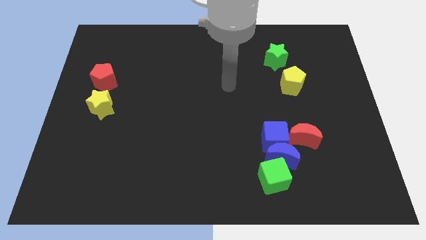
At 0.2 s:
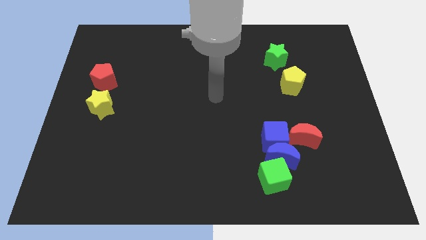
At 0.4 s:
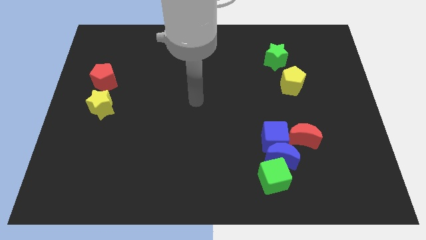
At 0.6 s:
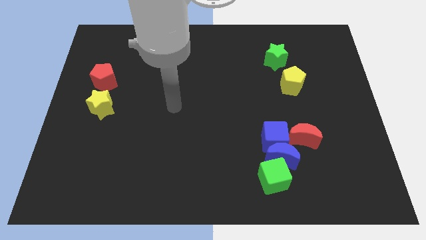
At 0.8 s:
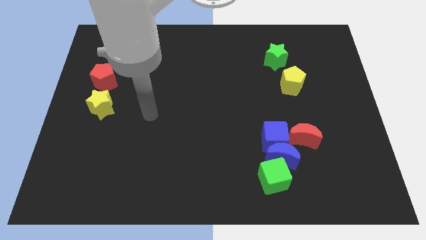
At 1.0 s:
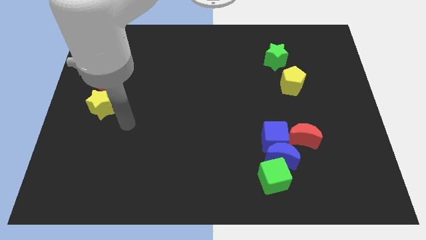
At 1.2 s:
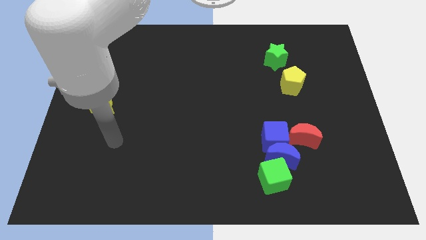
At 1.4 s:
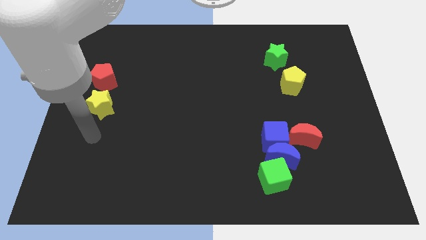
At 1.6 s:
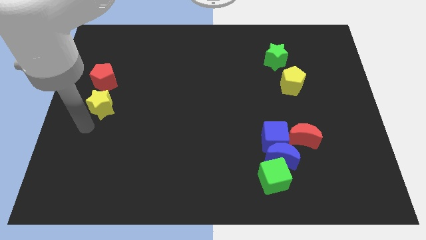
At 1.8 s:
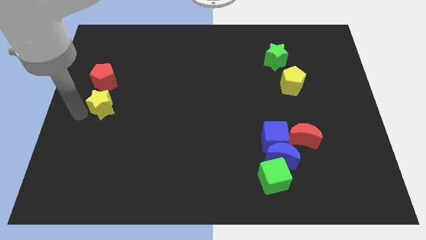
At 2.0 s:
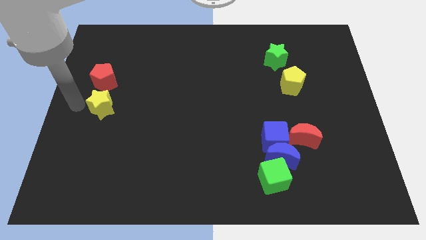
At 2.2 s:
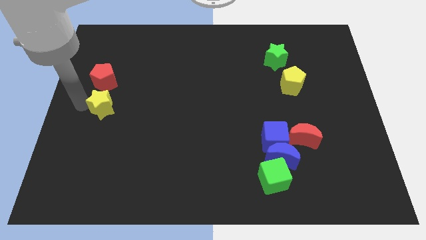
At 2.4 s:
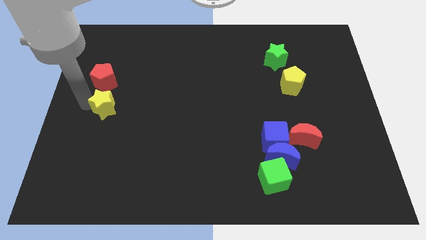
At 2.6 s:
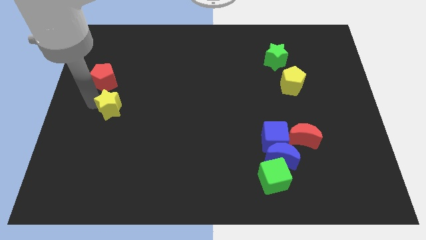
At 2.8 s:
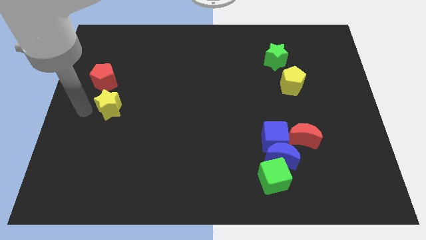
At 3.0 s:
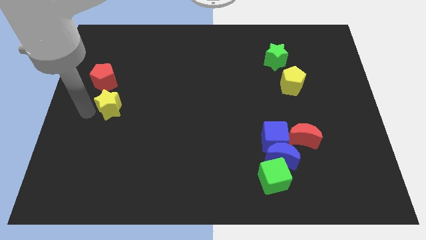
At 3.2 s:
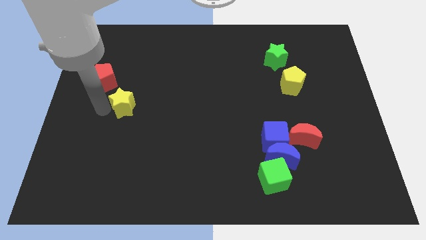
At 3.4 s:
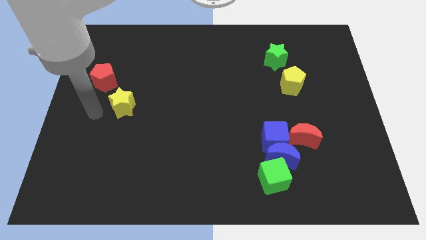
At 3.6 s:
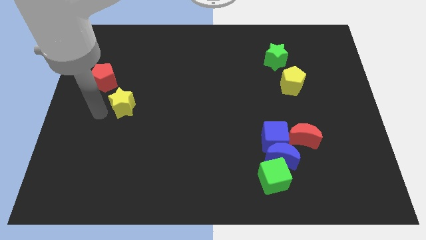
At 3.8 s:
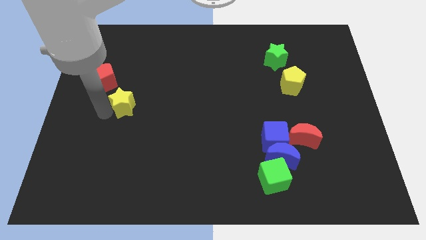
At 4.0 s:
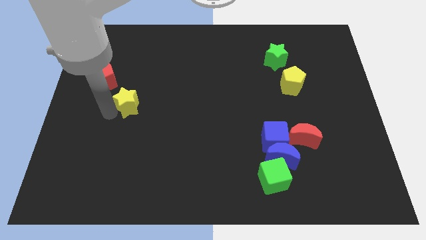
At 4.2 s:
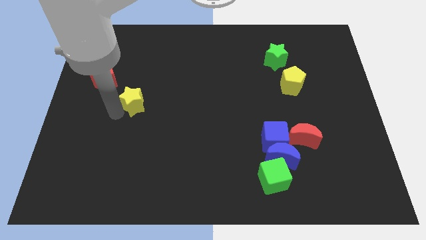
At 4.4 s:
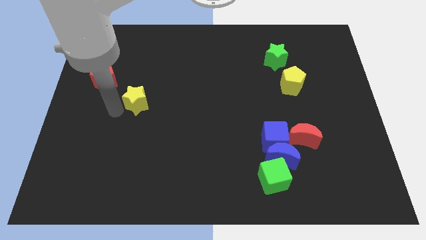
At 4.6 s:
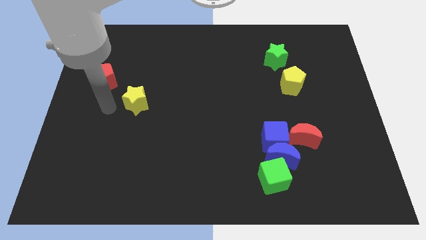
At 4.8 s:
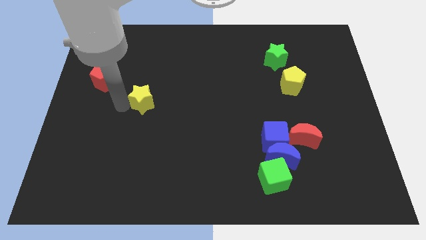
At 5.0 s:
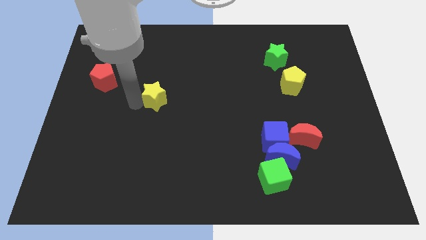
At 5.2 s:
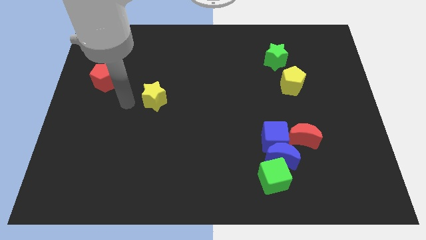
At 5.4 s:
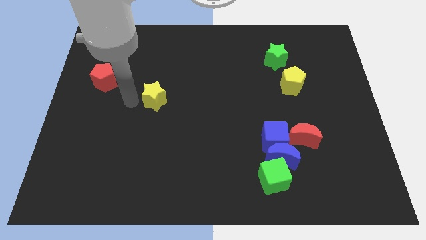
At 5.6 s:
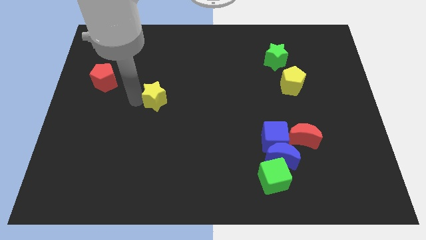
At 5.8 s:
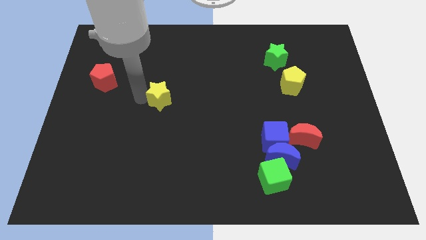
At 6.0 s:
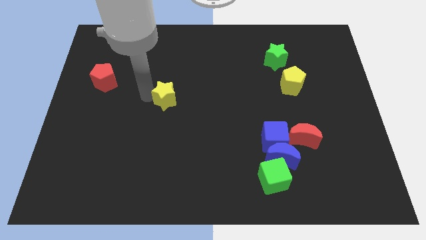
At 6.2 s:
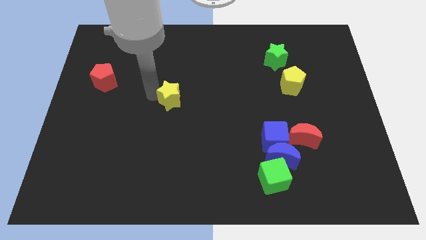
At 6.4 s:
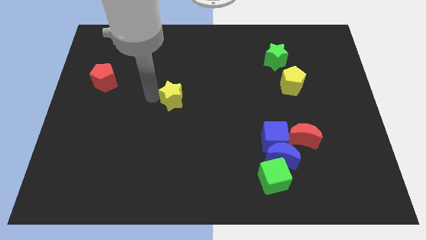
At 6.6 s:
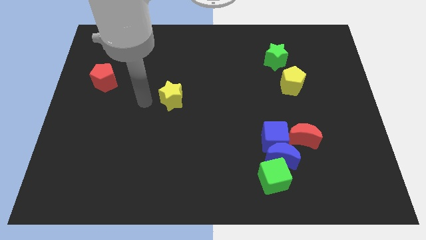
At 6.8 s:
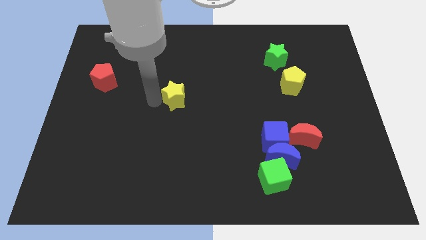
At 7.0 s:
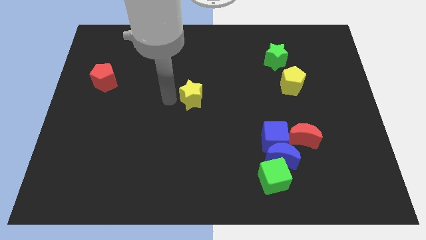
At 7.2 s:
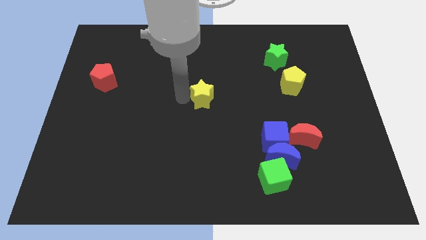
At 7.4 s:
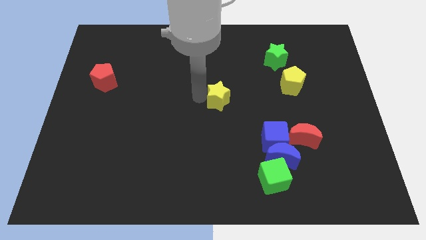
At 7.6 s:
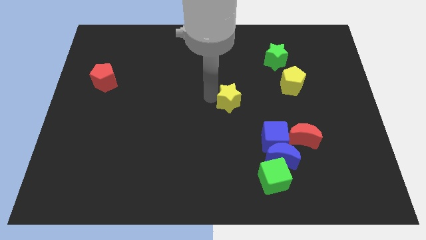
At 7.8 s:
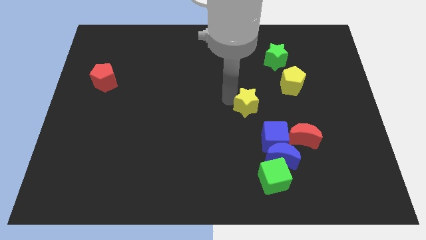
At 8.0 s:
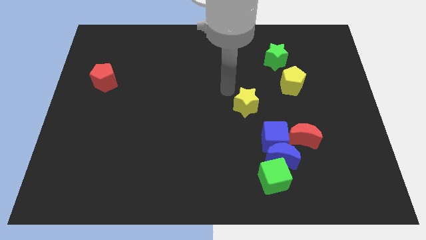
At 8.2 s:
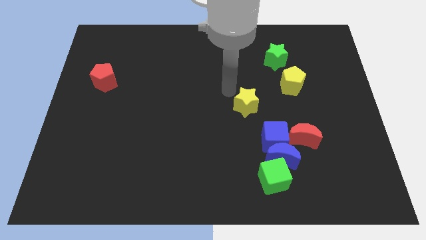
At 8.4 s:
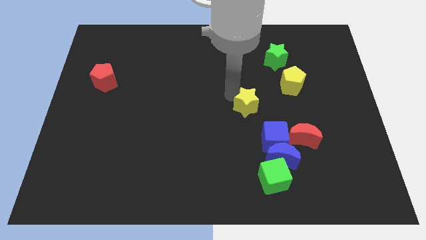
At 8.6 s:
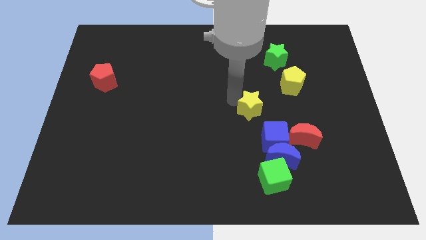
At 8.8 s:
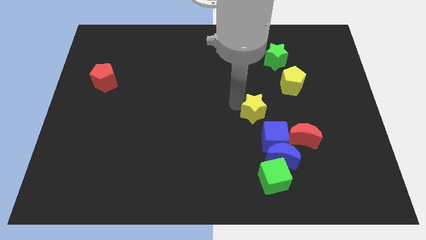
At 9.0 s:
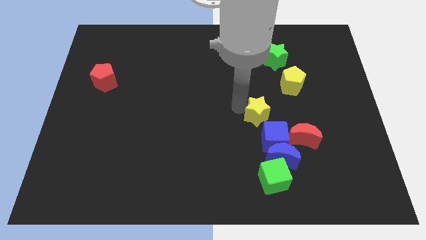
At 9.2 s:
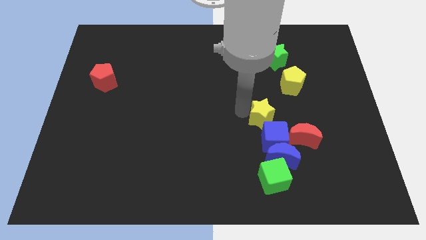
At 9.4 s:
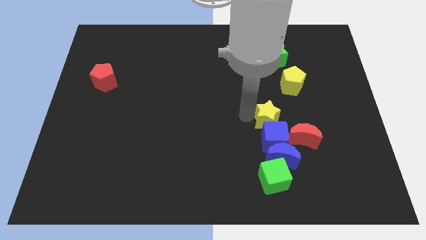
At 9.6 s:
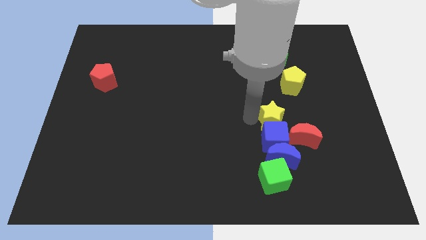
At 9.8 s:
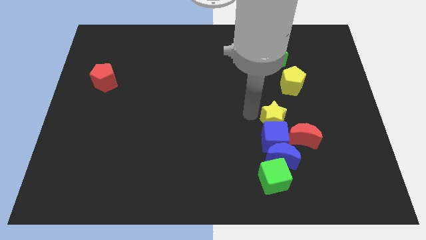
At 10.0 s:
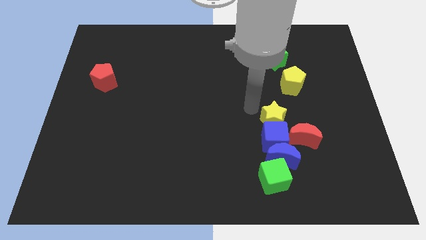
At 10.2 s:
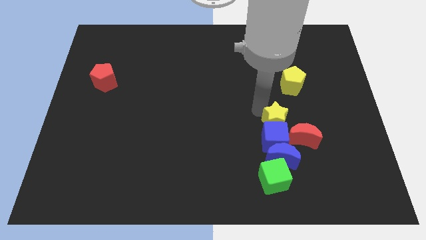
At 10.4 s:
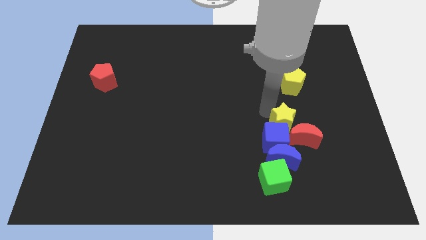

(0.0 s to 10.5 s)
push the yellow star next to the red moon

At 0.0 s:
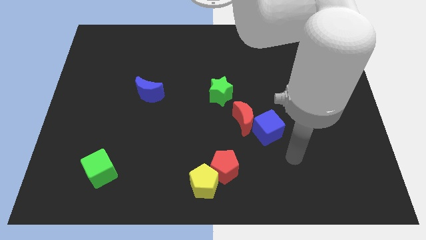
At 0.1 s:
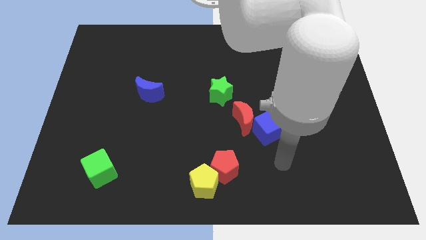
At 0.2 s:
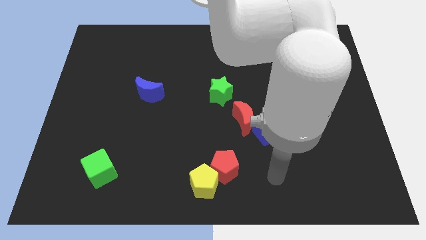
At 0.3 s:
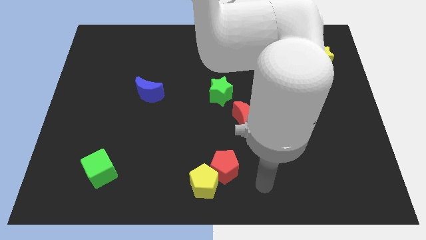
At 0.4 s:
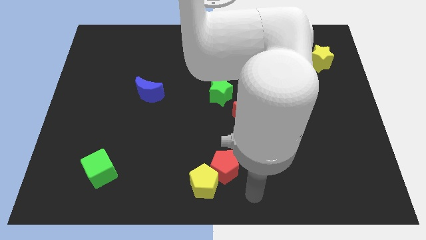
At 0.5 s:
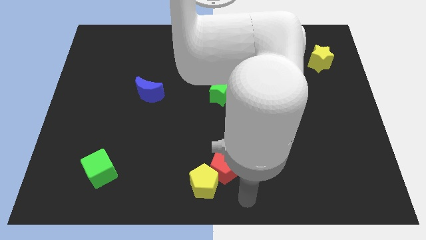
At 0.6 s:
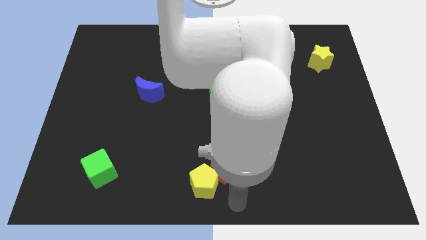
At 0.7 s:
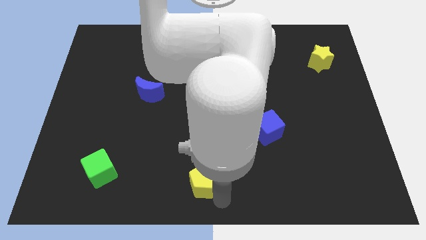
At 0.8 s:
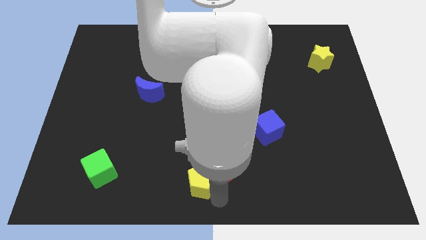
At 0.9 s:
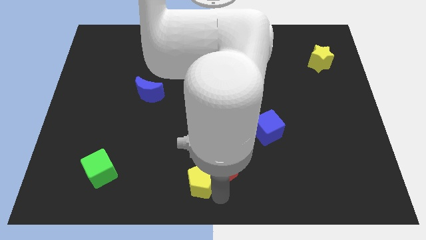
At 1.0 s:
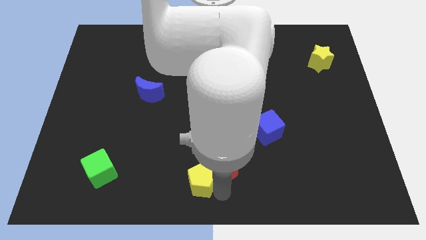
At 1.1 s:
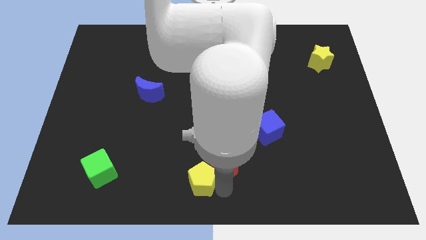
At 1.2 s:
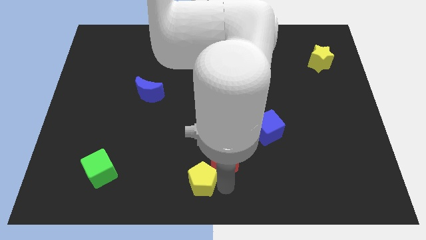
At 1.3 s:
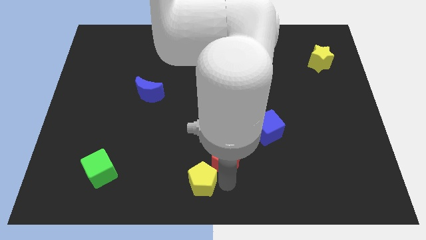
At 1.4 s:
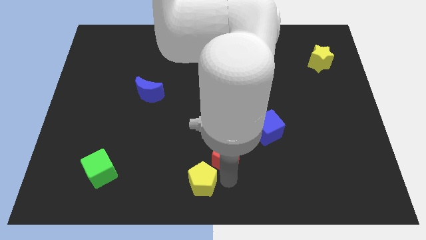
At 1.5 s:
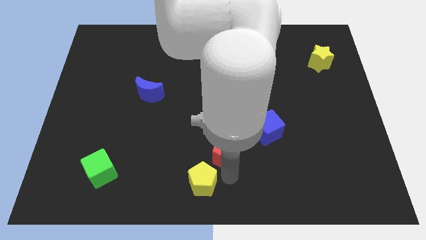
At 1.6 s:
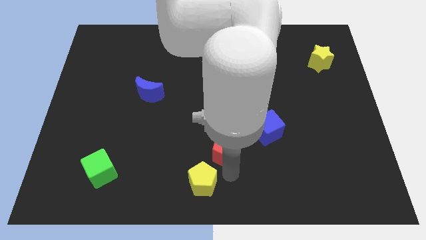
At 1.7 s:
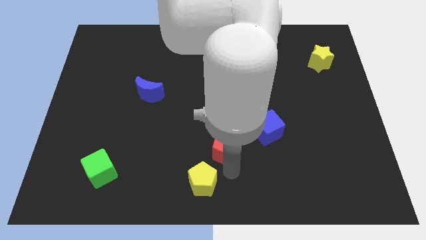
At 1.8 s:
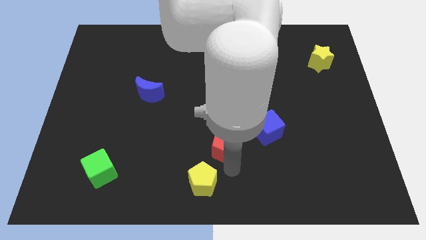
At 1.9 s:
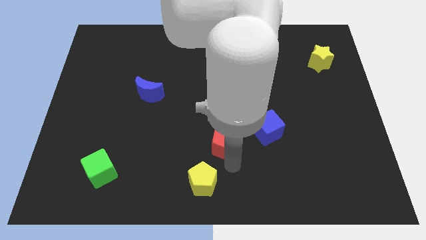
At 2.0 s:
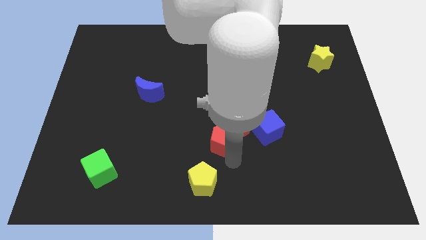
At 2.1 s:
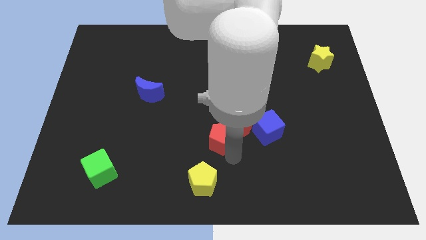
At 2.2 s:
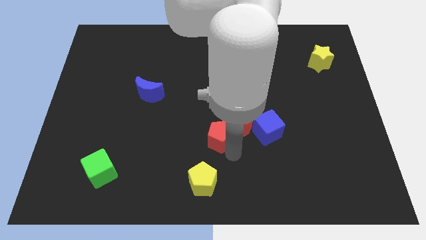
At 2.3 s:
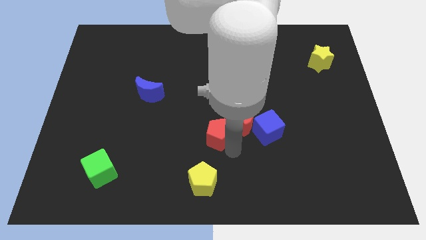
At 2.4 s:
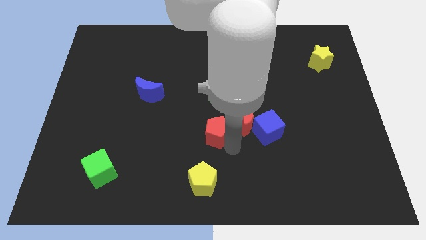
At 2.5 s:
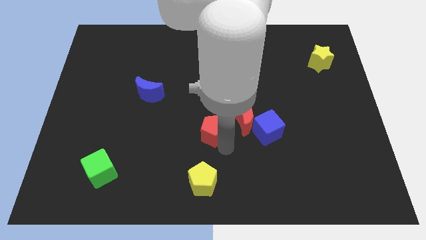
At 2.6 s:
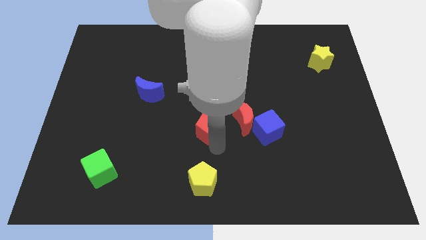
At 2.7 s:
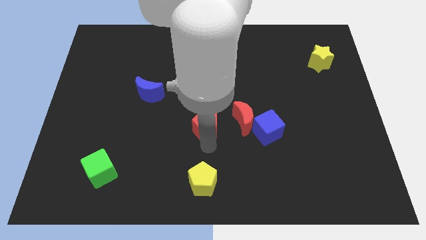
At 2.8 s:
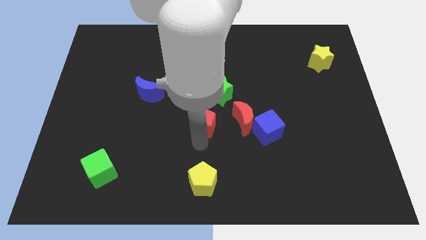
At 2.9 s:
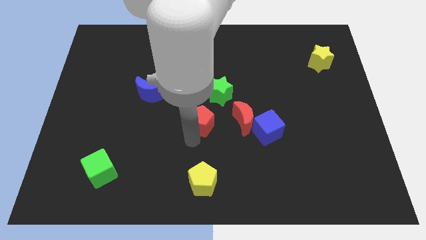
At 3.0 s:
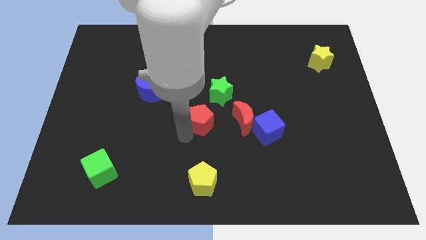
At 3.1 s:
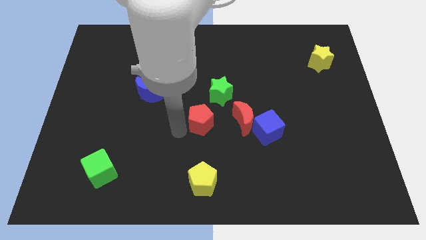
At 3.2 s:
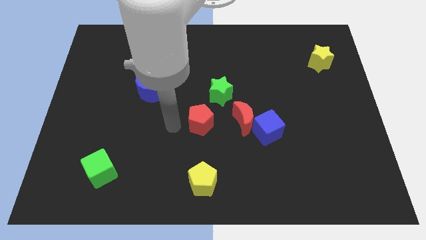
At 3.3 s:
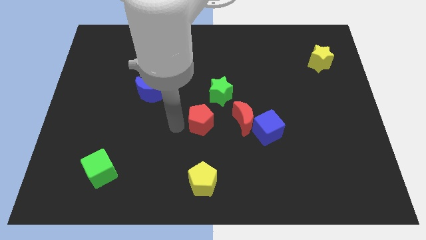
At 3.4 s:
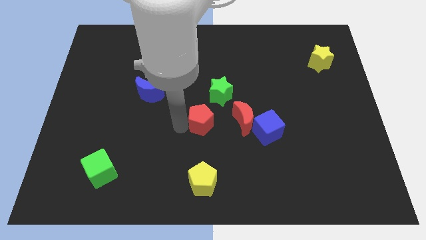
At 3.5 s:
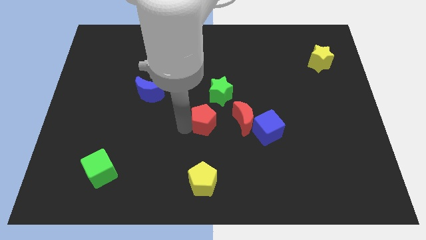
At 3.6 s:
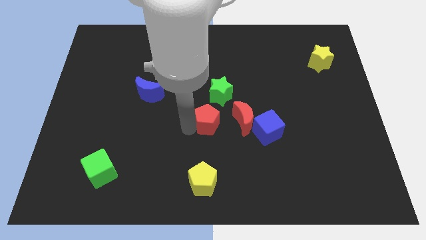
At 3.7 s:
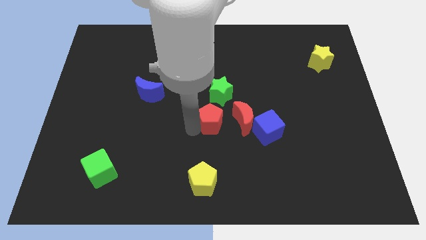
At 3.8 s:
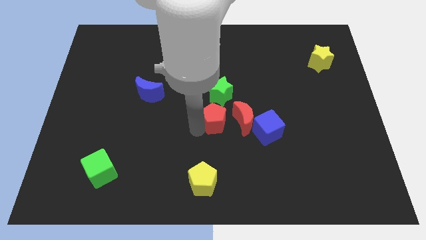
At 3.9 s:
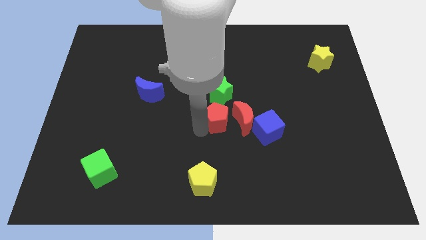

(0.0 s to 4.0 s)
move the red pentagon to the red moon
